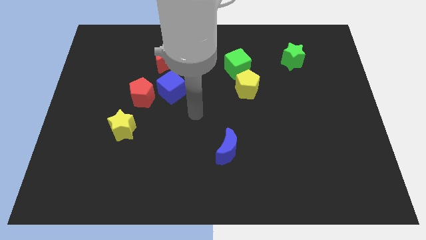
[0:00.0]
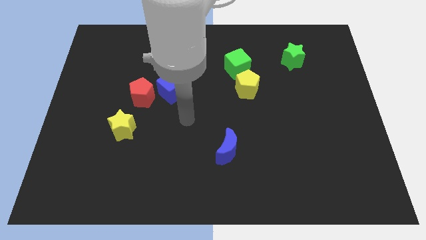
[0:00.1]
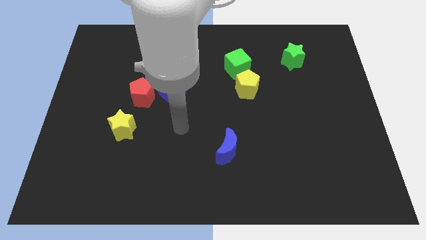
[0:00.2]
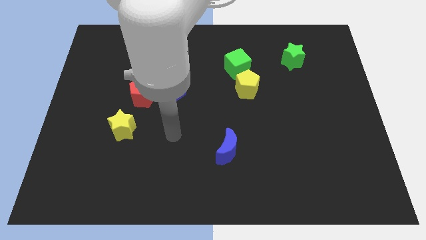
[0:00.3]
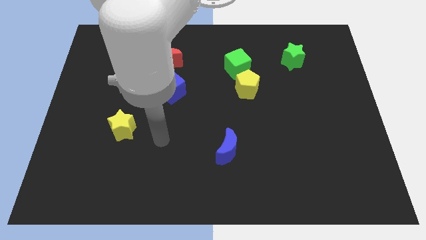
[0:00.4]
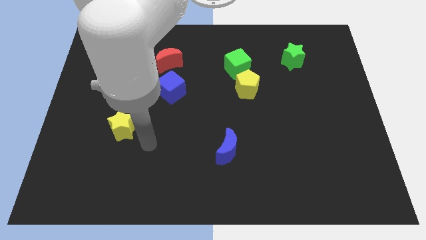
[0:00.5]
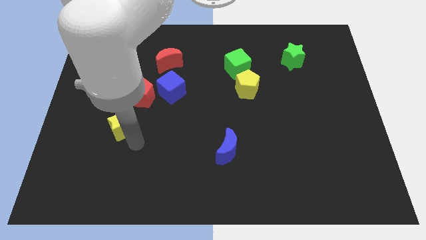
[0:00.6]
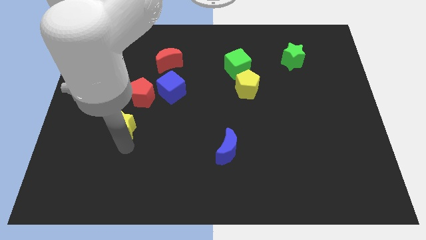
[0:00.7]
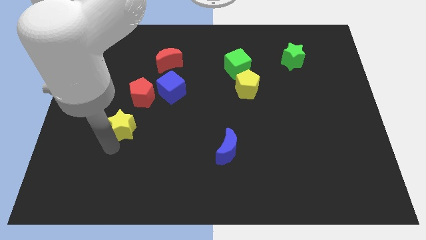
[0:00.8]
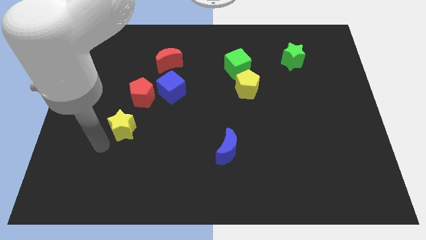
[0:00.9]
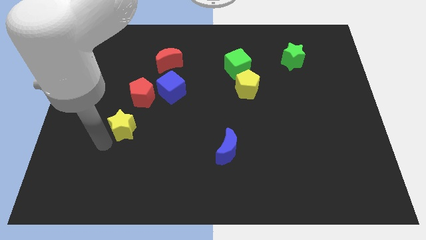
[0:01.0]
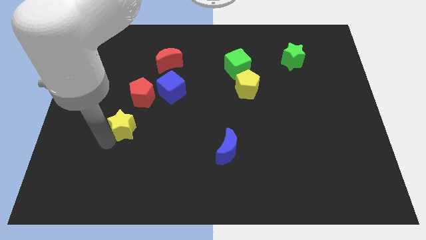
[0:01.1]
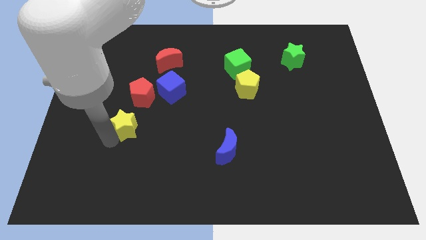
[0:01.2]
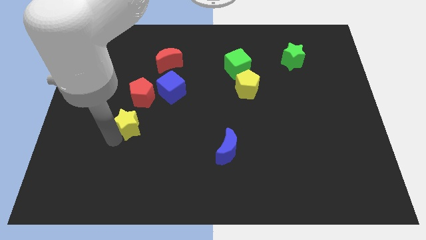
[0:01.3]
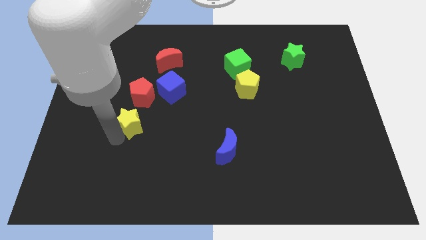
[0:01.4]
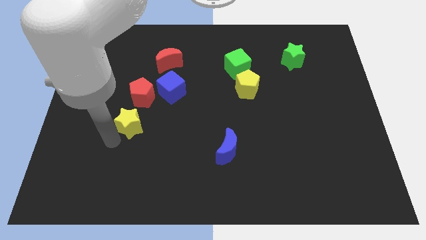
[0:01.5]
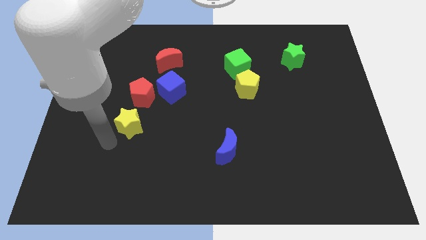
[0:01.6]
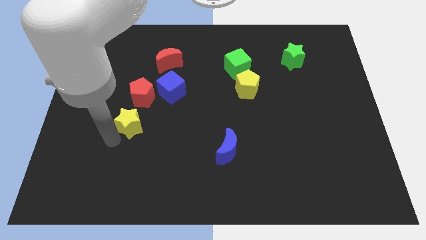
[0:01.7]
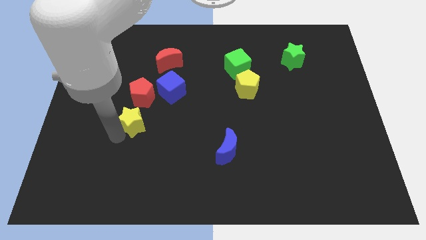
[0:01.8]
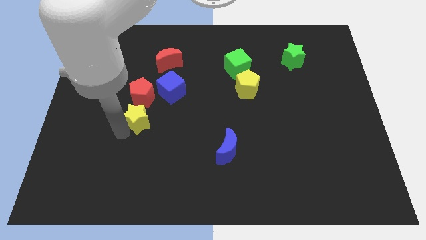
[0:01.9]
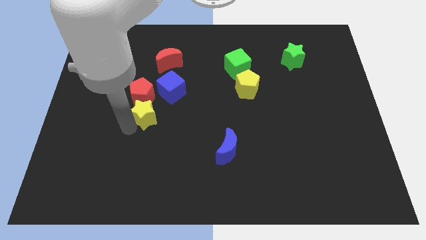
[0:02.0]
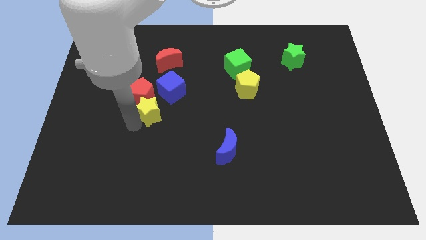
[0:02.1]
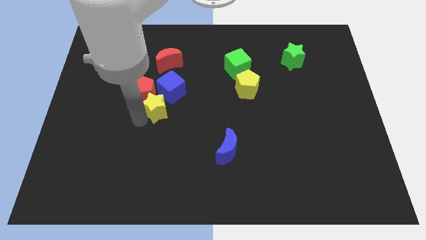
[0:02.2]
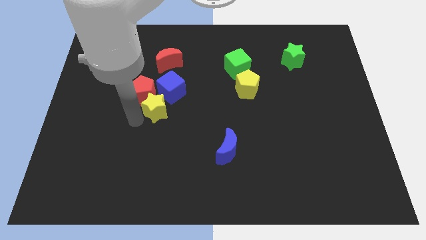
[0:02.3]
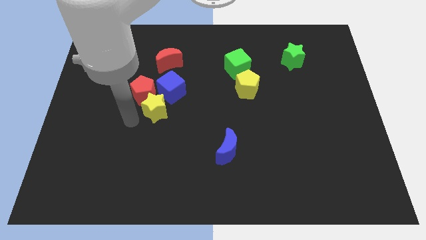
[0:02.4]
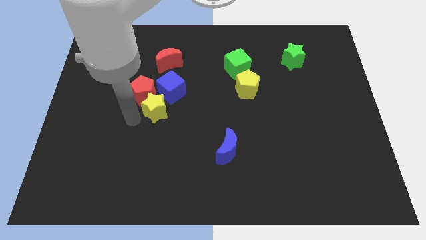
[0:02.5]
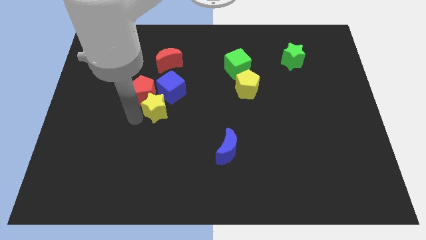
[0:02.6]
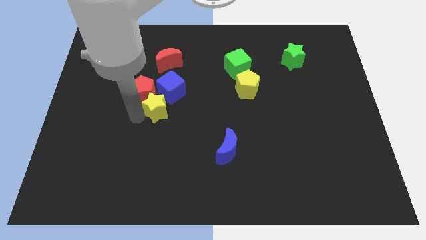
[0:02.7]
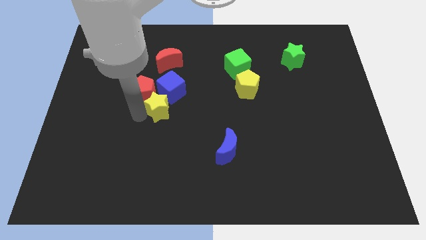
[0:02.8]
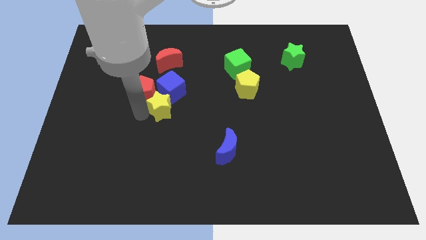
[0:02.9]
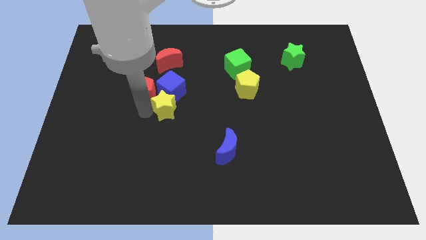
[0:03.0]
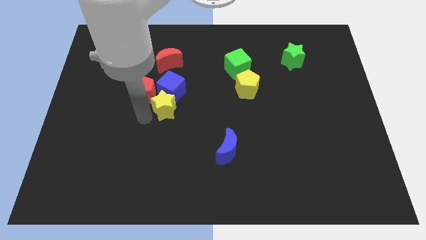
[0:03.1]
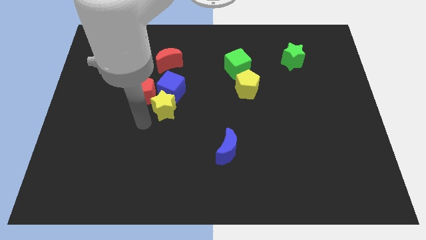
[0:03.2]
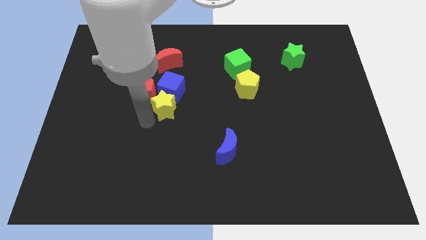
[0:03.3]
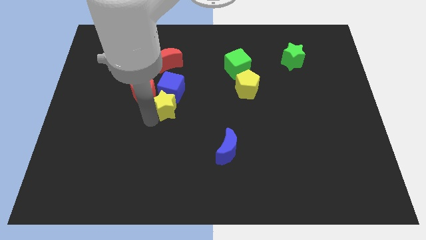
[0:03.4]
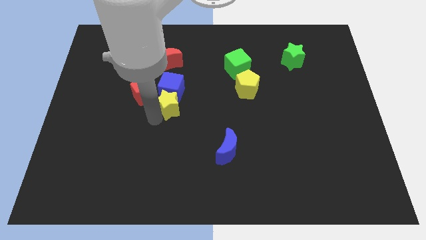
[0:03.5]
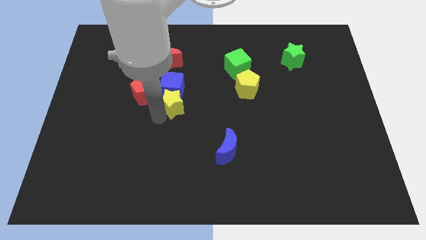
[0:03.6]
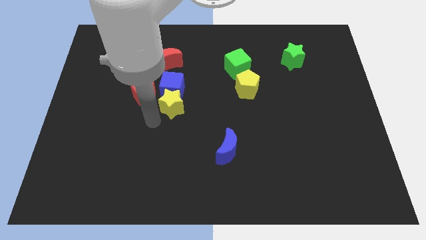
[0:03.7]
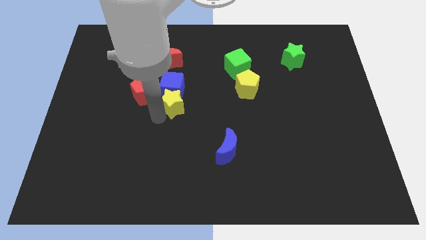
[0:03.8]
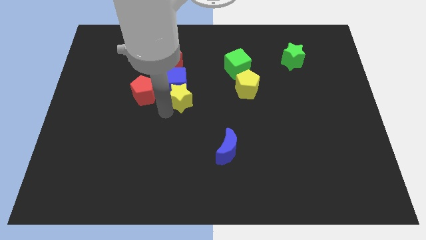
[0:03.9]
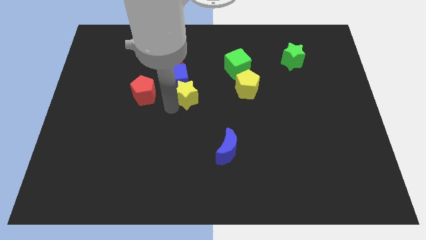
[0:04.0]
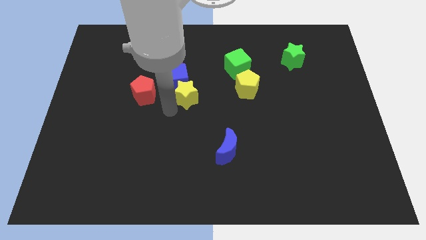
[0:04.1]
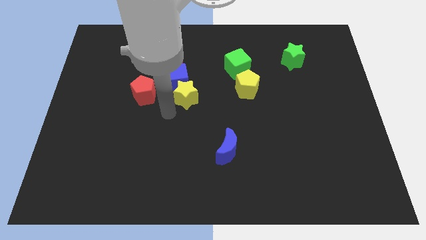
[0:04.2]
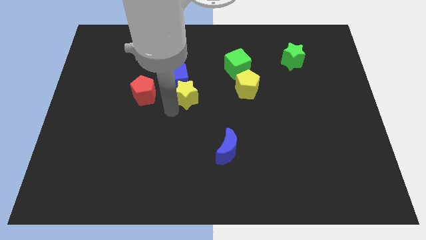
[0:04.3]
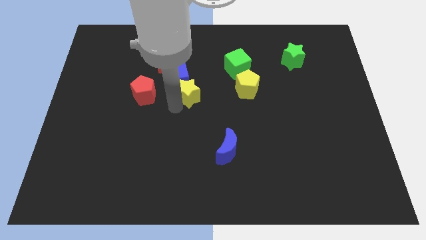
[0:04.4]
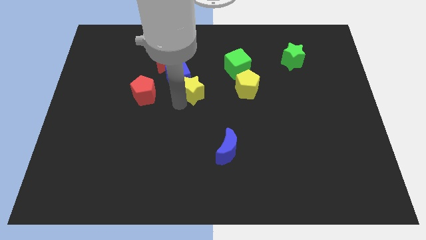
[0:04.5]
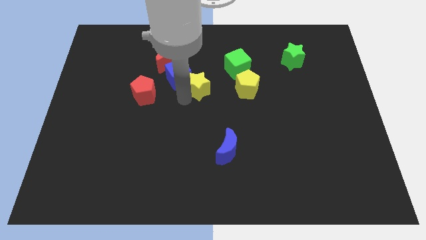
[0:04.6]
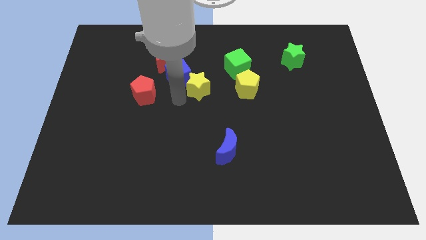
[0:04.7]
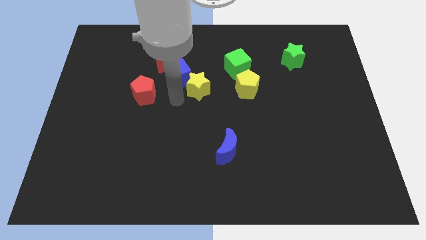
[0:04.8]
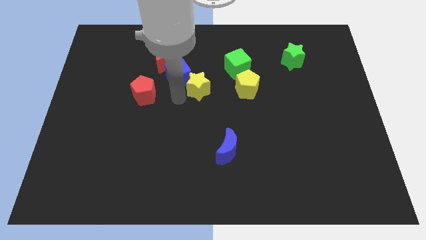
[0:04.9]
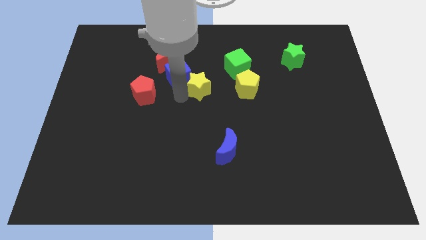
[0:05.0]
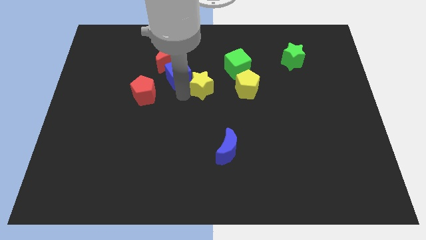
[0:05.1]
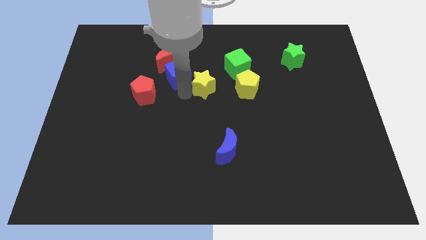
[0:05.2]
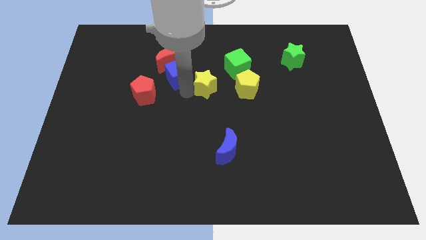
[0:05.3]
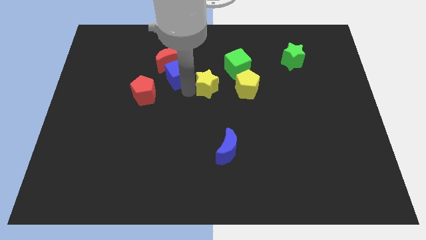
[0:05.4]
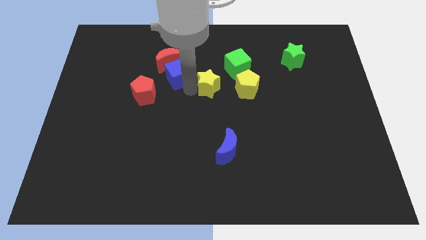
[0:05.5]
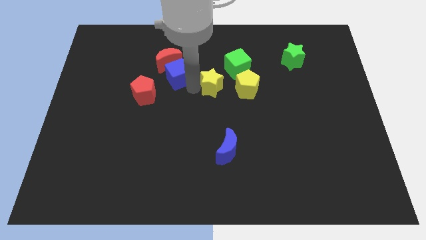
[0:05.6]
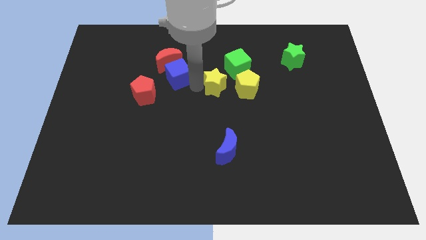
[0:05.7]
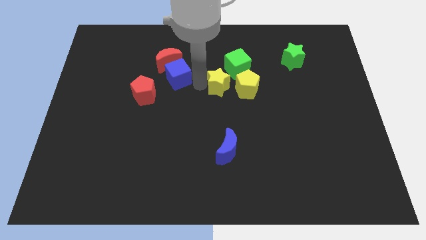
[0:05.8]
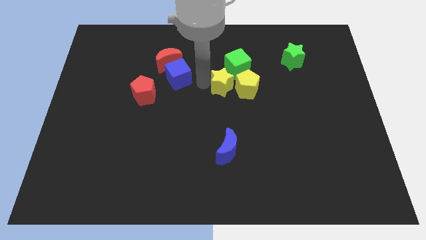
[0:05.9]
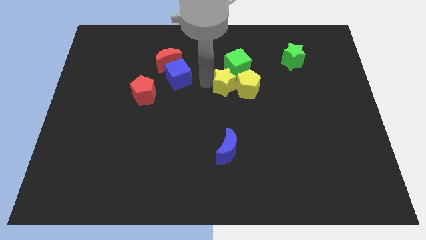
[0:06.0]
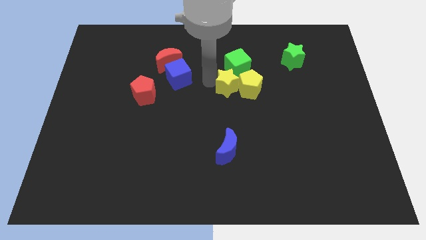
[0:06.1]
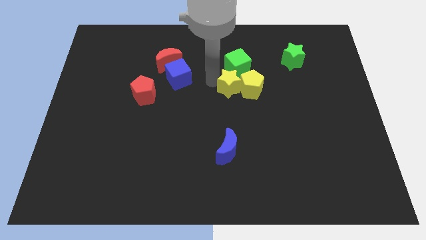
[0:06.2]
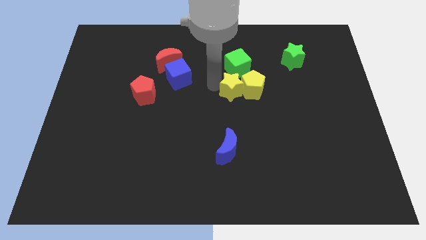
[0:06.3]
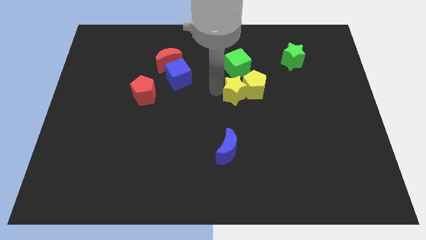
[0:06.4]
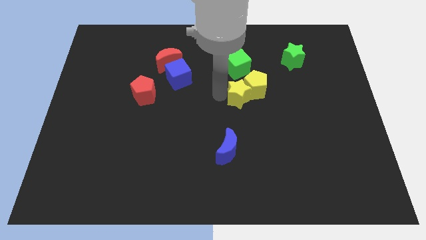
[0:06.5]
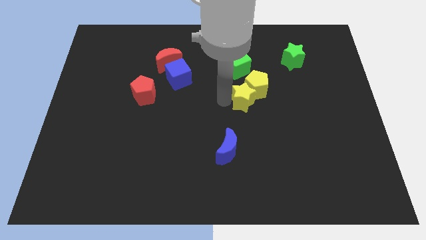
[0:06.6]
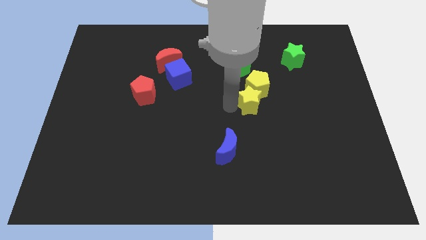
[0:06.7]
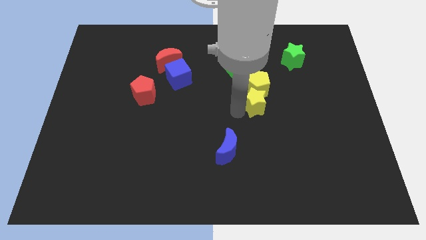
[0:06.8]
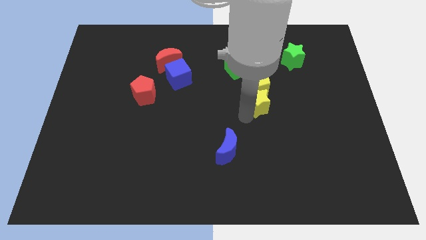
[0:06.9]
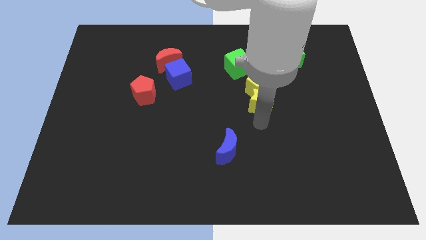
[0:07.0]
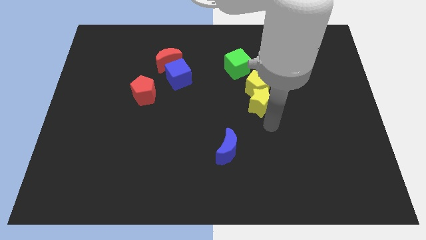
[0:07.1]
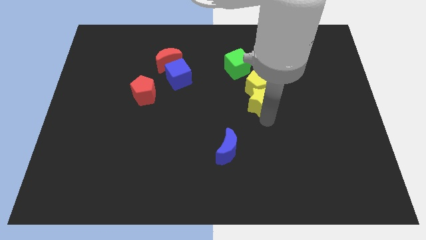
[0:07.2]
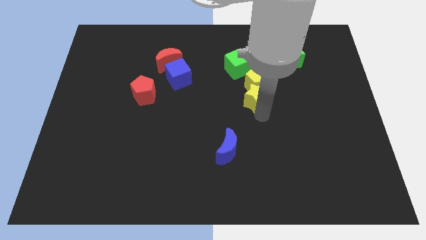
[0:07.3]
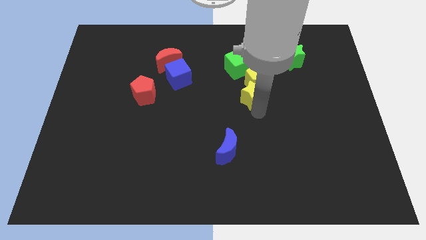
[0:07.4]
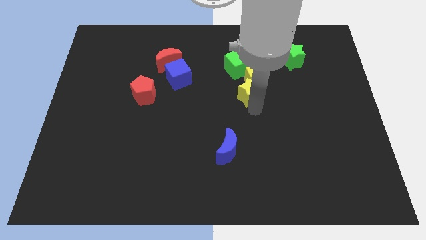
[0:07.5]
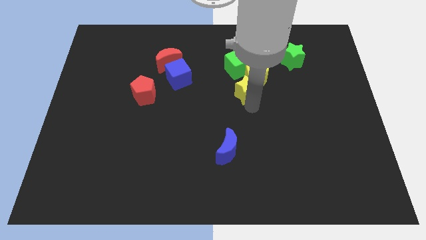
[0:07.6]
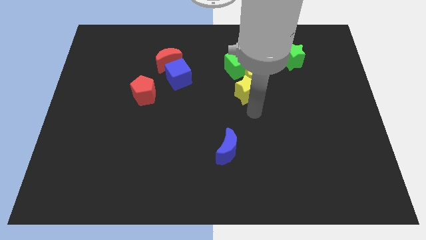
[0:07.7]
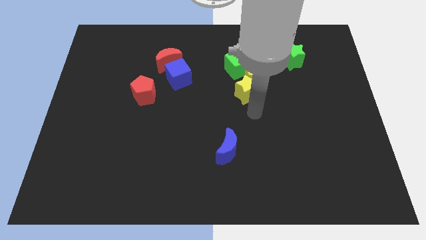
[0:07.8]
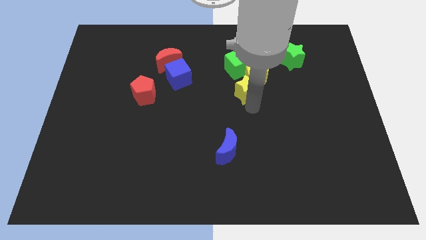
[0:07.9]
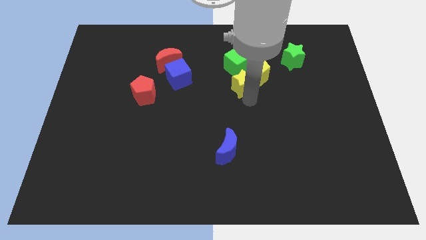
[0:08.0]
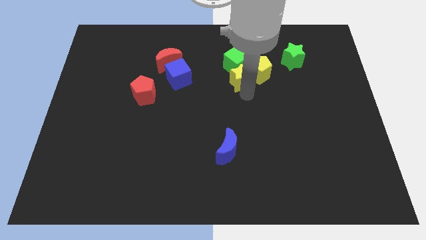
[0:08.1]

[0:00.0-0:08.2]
put the yellow star close to the green cube
